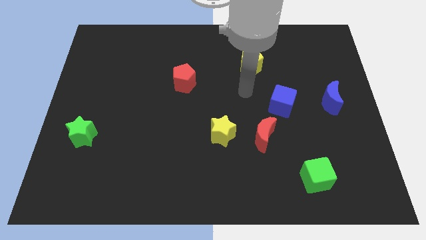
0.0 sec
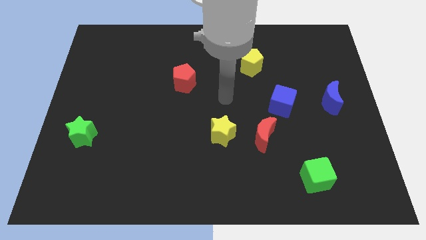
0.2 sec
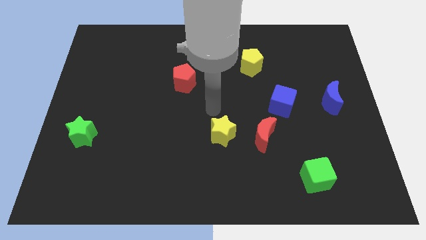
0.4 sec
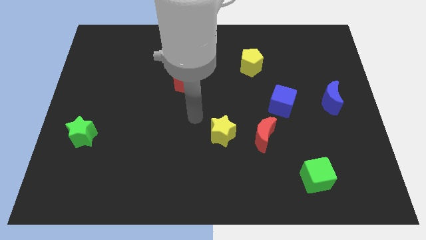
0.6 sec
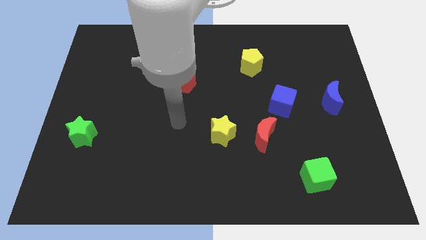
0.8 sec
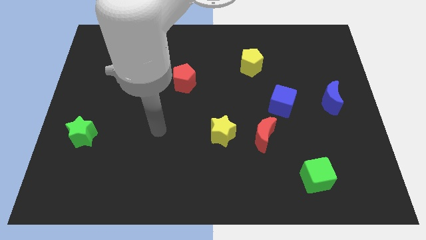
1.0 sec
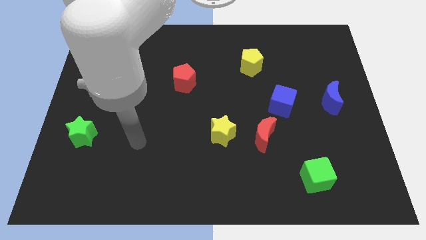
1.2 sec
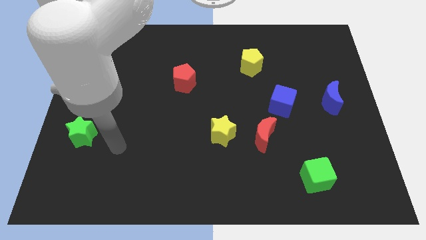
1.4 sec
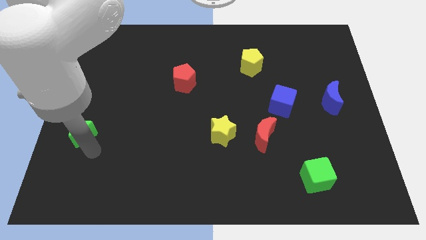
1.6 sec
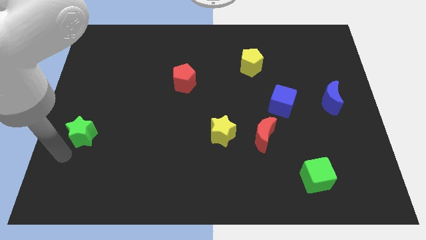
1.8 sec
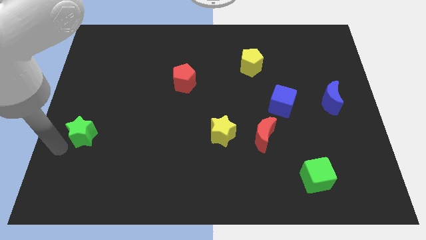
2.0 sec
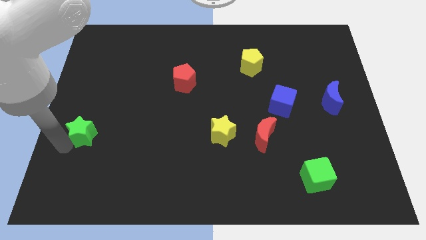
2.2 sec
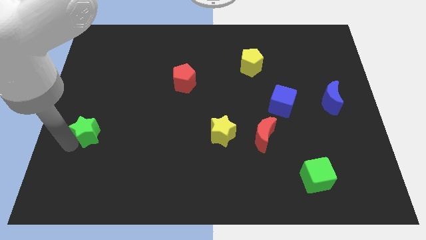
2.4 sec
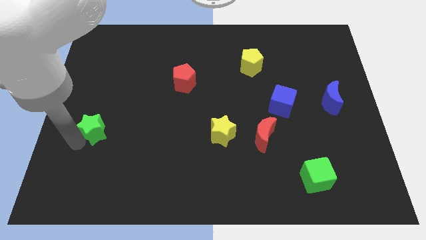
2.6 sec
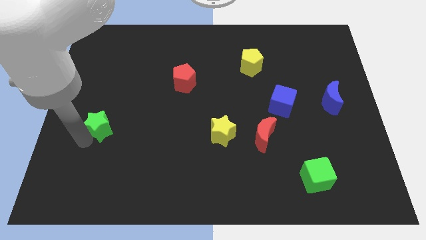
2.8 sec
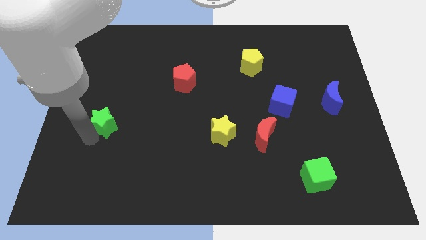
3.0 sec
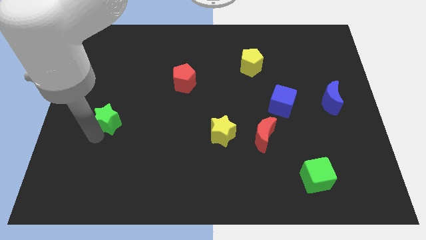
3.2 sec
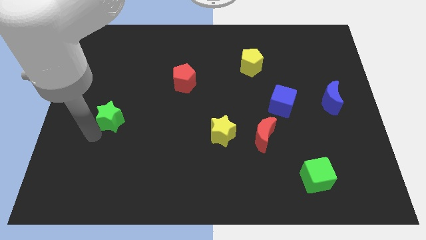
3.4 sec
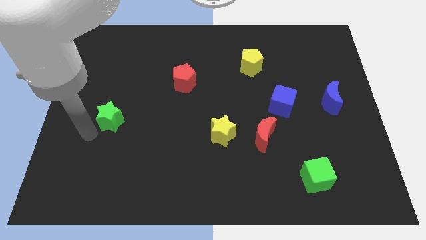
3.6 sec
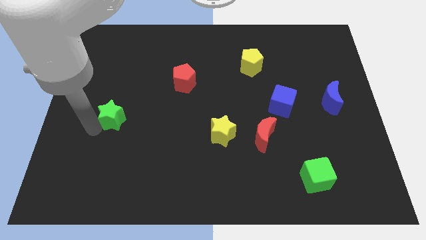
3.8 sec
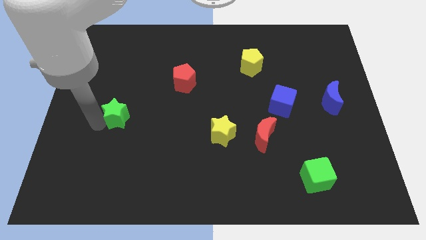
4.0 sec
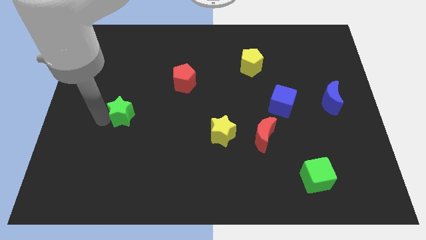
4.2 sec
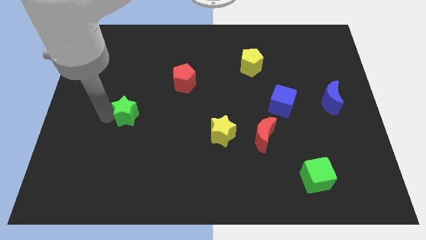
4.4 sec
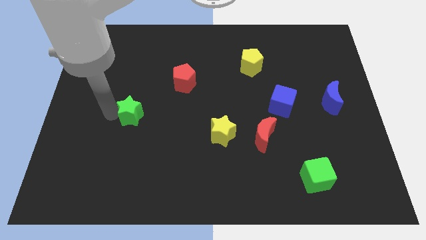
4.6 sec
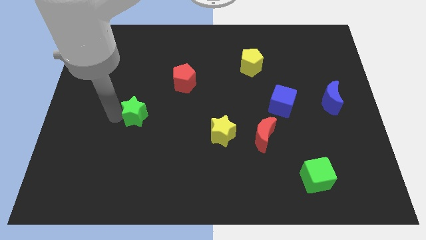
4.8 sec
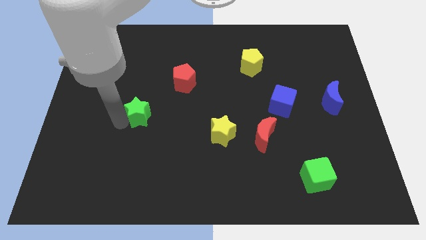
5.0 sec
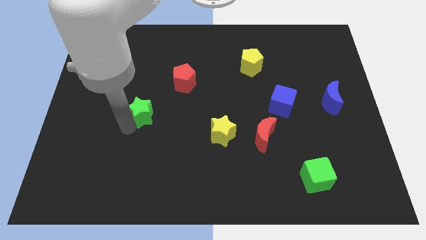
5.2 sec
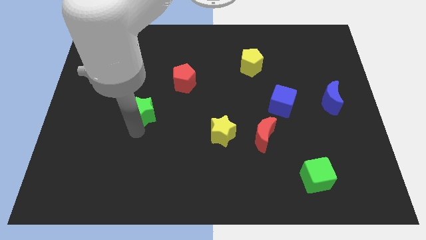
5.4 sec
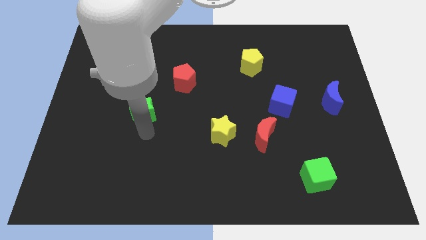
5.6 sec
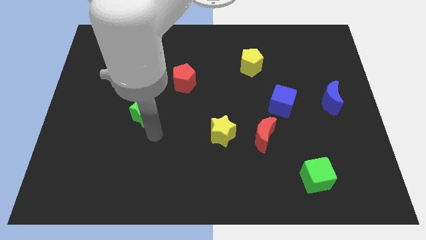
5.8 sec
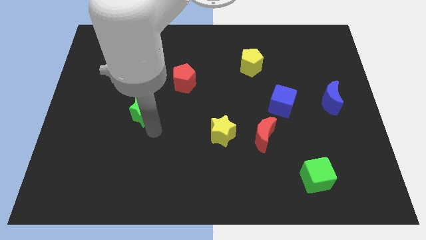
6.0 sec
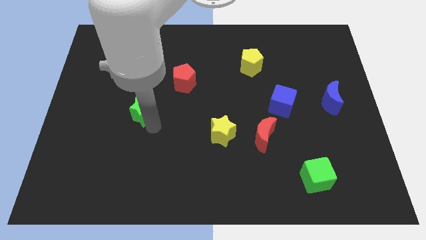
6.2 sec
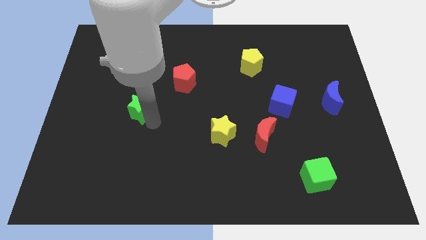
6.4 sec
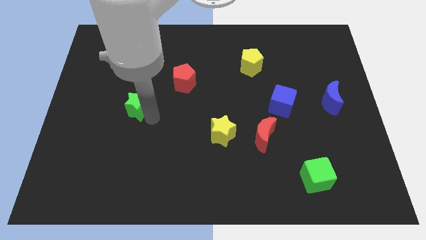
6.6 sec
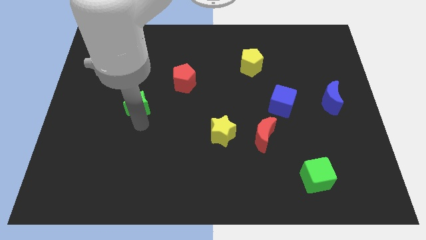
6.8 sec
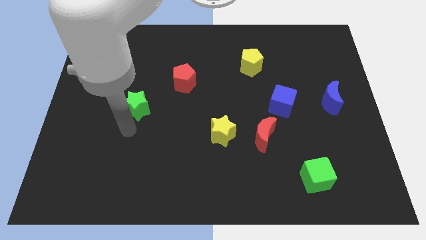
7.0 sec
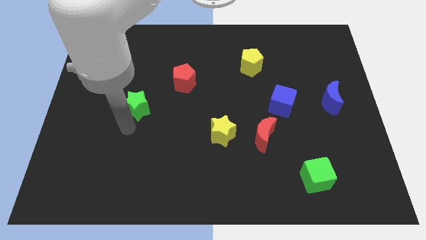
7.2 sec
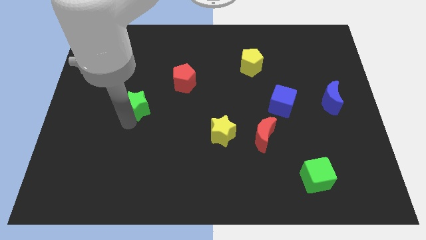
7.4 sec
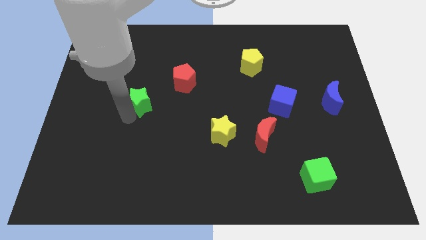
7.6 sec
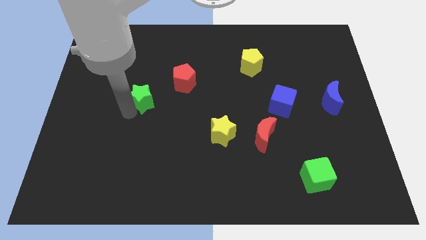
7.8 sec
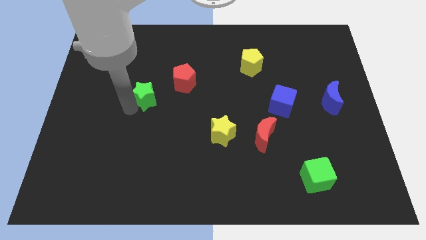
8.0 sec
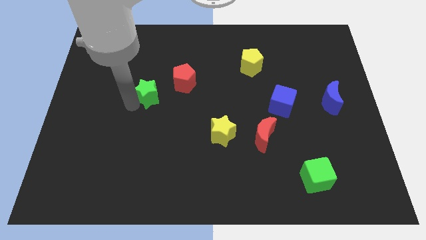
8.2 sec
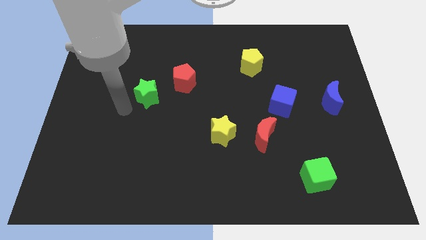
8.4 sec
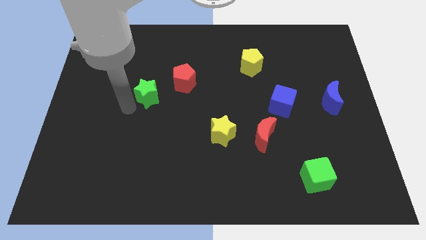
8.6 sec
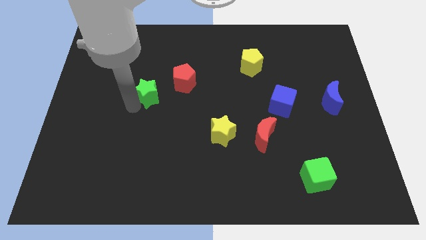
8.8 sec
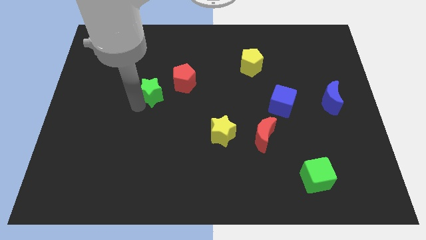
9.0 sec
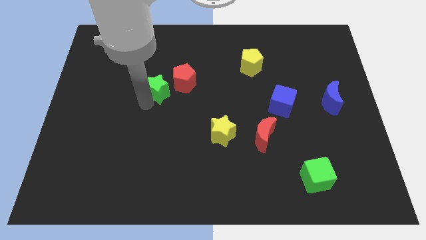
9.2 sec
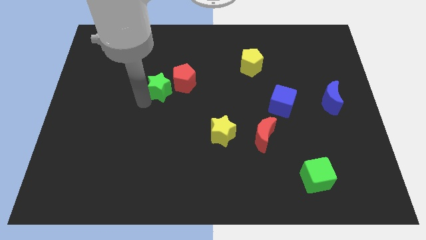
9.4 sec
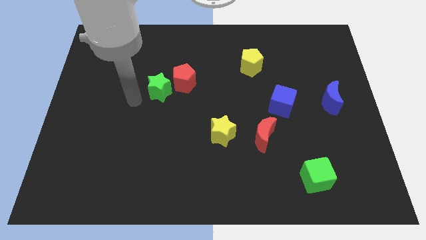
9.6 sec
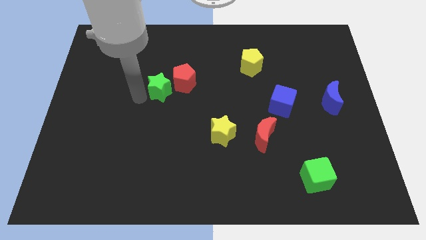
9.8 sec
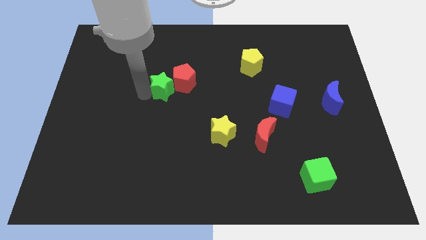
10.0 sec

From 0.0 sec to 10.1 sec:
move the green star towards the red pentagon

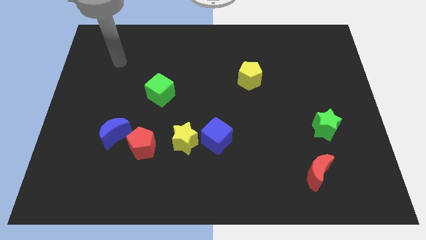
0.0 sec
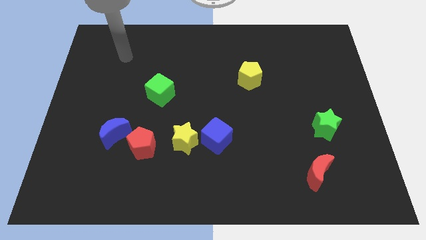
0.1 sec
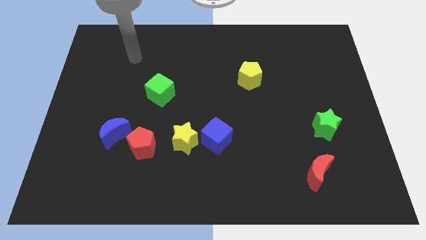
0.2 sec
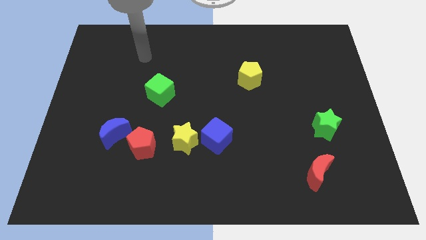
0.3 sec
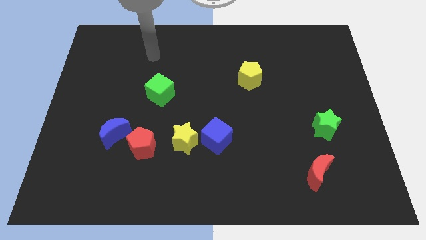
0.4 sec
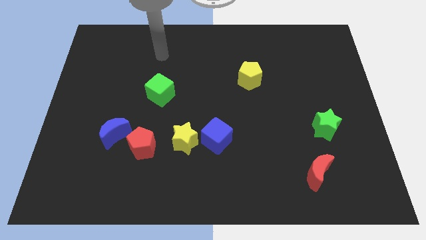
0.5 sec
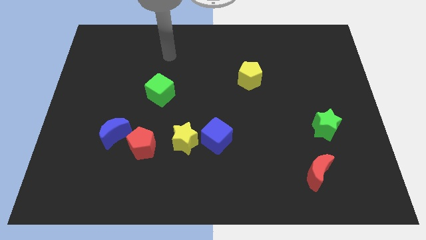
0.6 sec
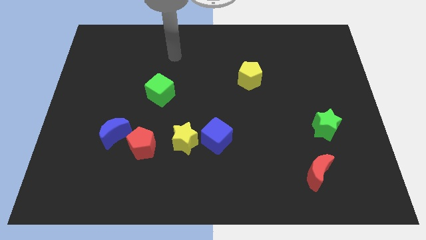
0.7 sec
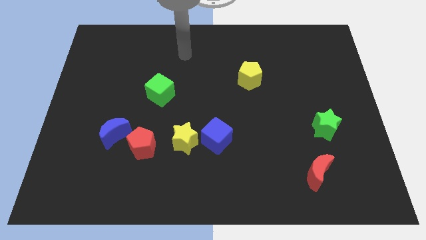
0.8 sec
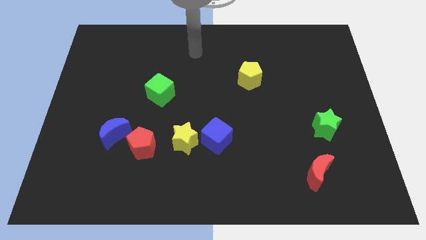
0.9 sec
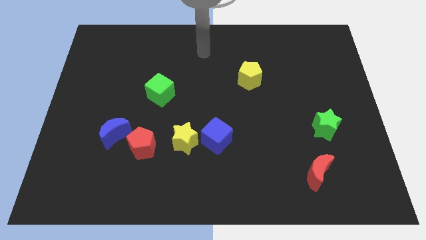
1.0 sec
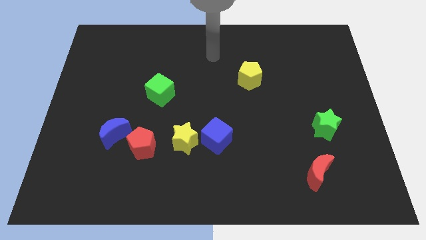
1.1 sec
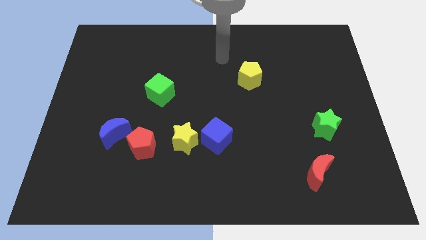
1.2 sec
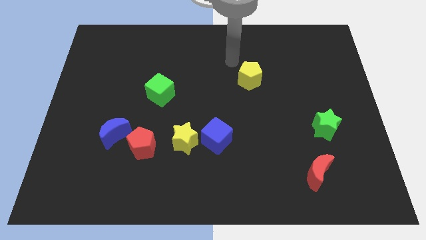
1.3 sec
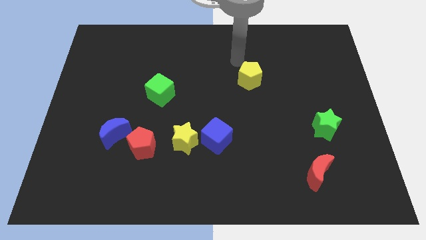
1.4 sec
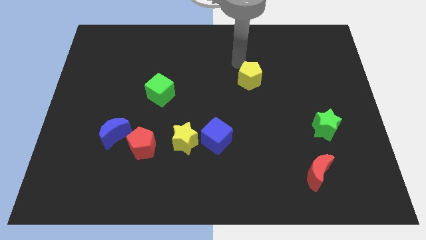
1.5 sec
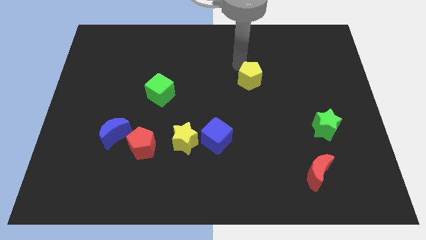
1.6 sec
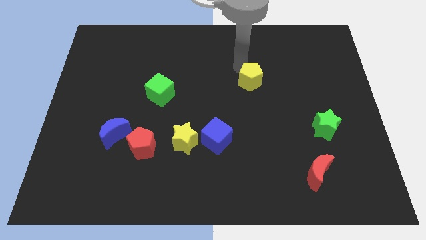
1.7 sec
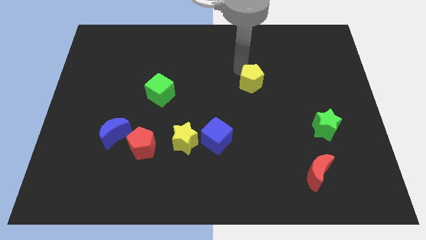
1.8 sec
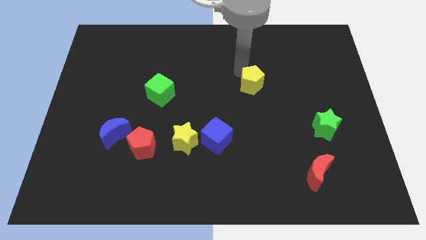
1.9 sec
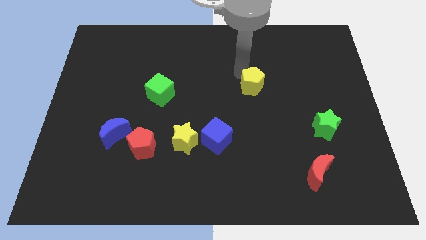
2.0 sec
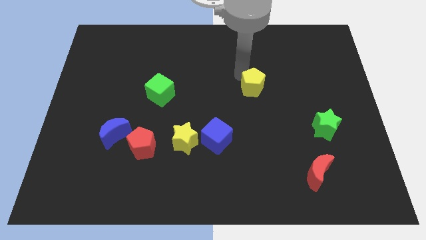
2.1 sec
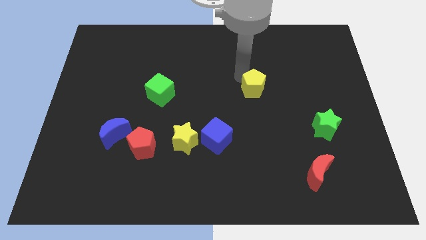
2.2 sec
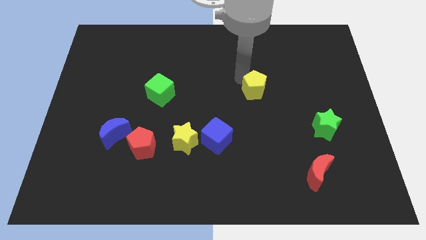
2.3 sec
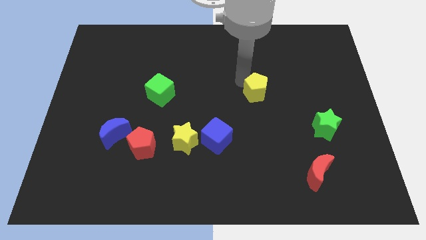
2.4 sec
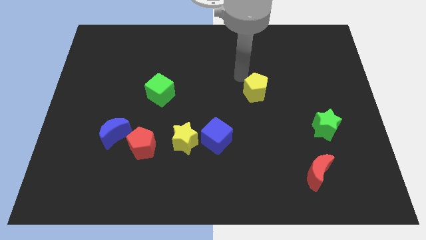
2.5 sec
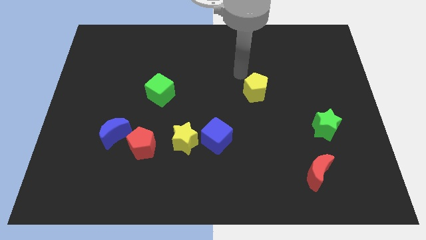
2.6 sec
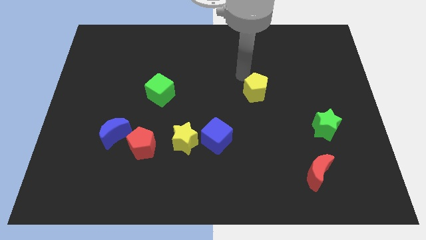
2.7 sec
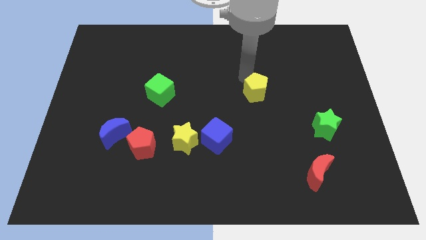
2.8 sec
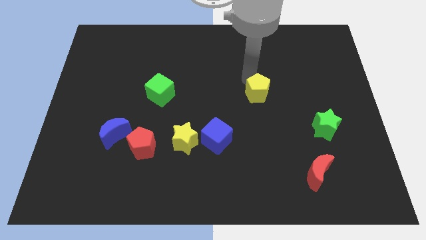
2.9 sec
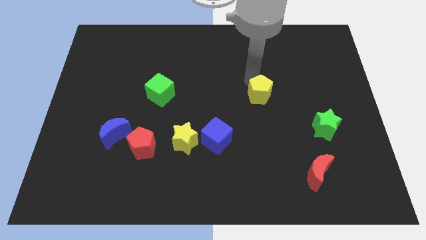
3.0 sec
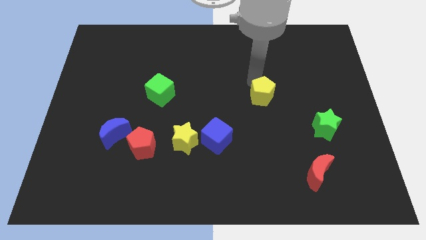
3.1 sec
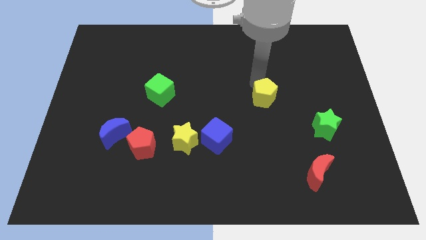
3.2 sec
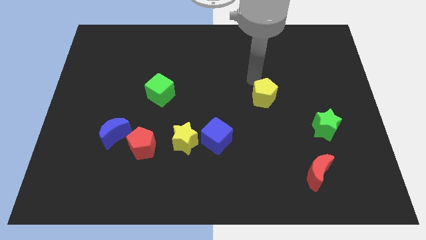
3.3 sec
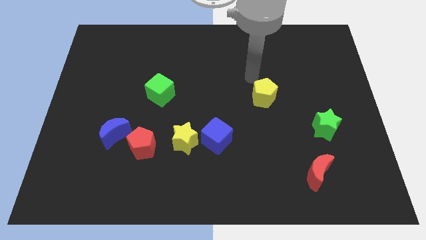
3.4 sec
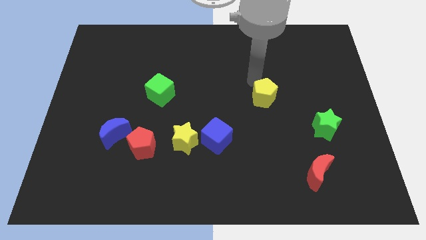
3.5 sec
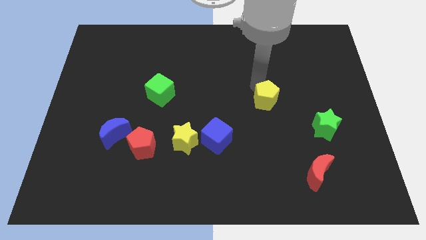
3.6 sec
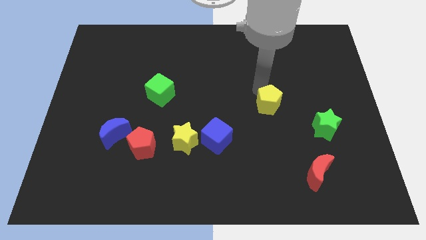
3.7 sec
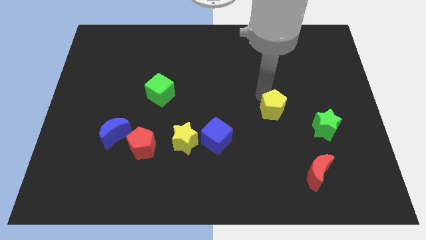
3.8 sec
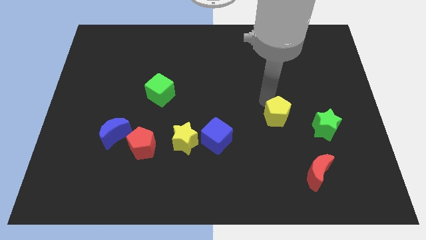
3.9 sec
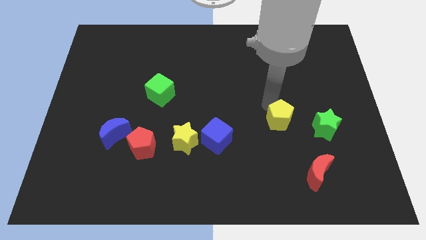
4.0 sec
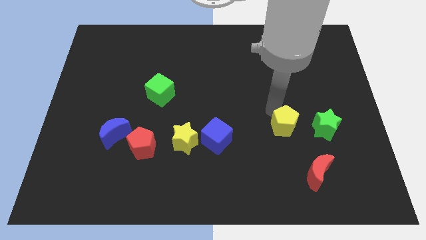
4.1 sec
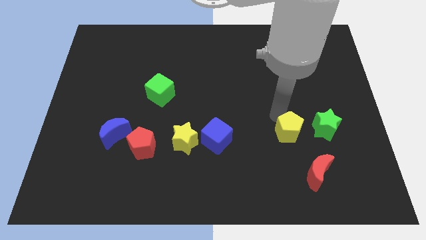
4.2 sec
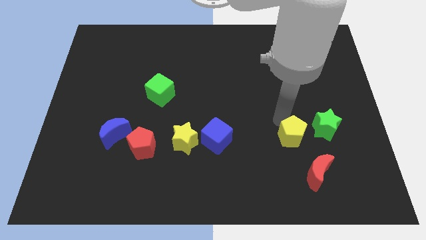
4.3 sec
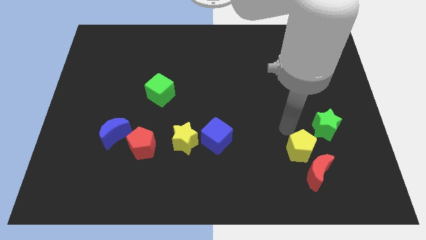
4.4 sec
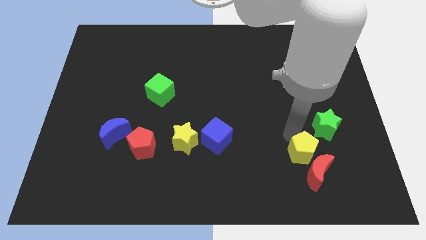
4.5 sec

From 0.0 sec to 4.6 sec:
push the yellow pentagon next to the red moon
